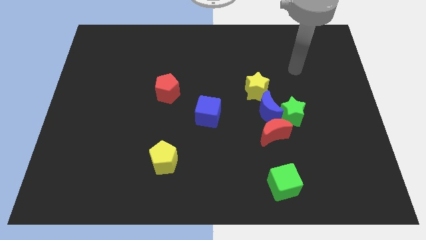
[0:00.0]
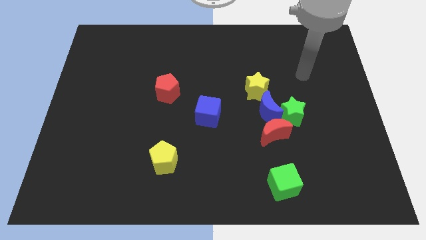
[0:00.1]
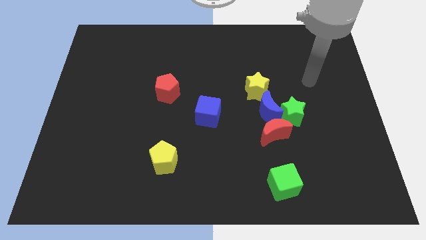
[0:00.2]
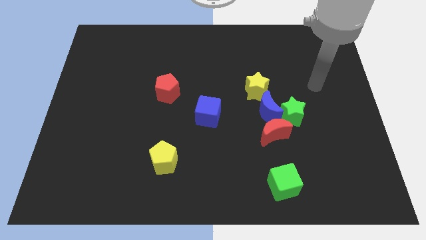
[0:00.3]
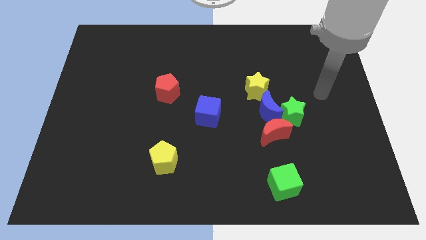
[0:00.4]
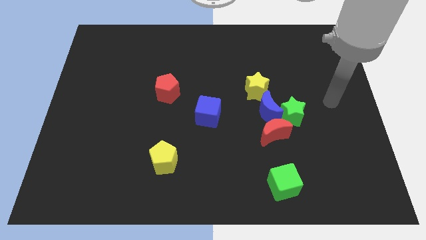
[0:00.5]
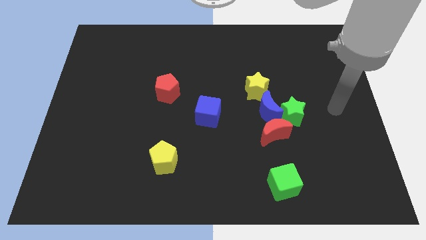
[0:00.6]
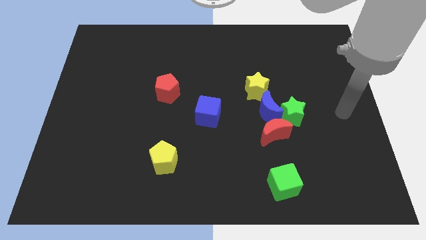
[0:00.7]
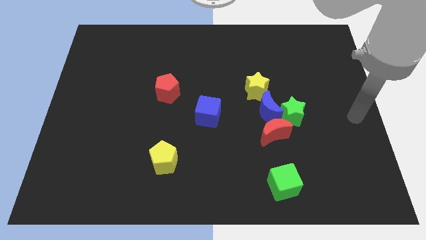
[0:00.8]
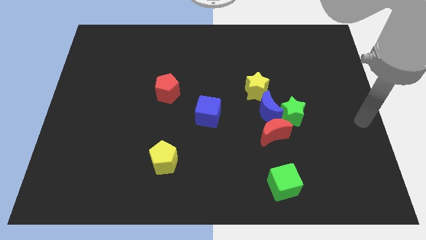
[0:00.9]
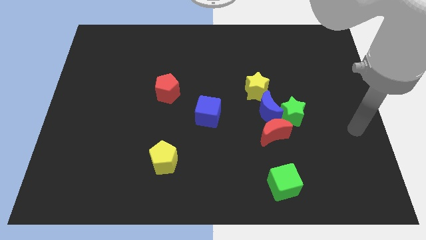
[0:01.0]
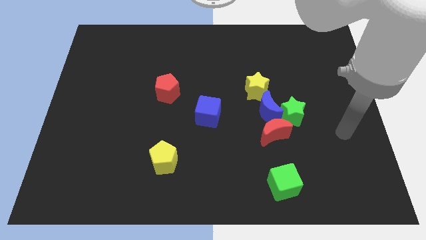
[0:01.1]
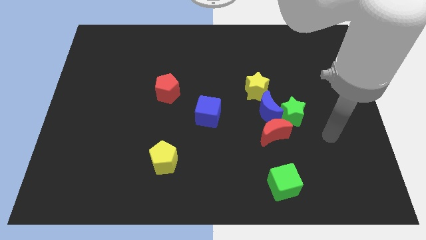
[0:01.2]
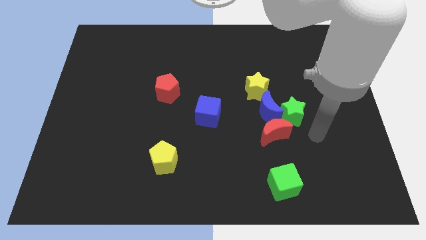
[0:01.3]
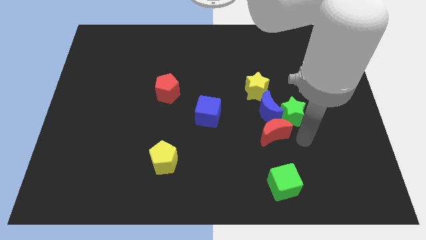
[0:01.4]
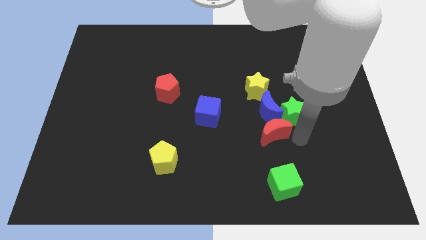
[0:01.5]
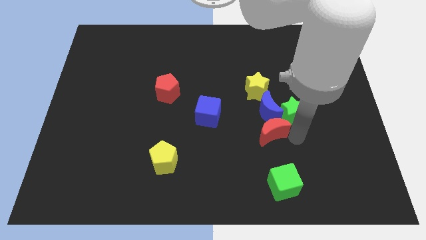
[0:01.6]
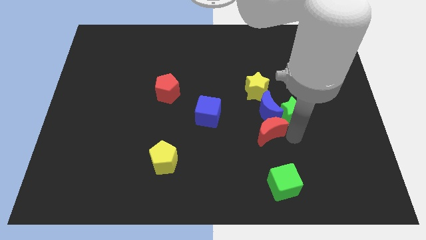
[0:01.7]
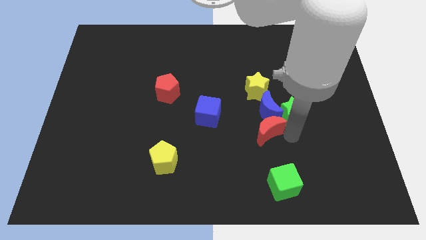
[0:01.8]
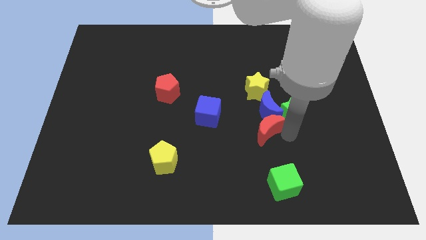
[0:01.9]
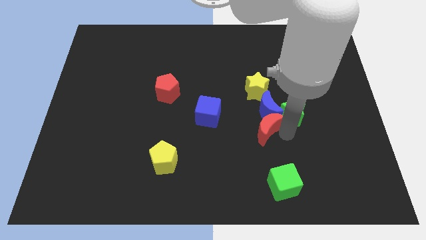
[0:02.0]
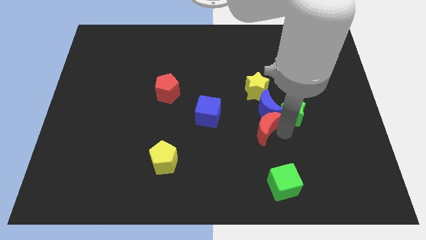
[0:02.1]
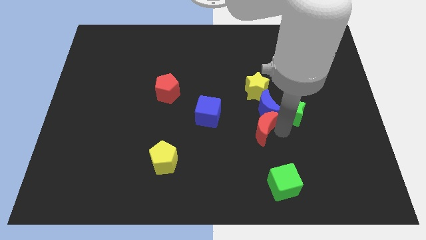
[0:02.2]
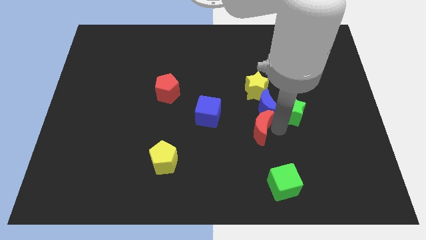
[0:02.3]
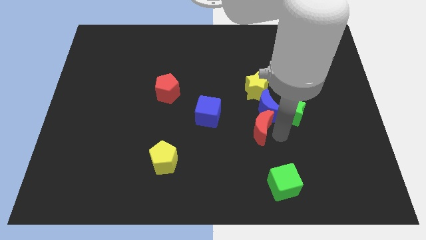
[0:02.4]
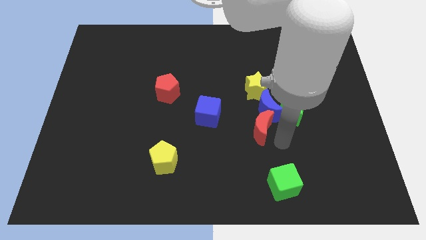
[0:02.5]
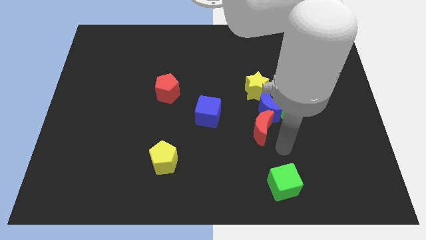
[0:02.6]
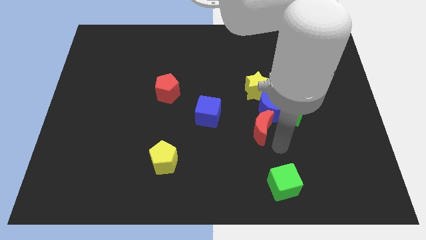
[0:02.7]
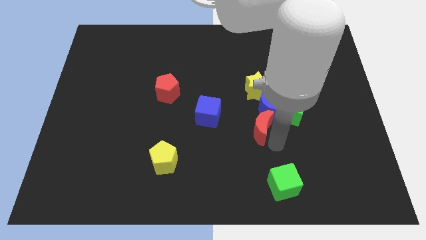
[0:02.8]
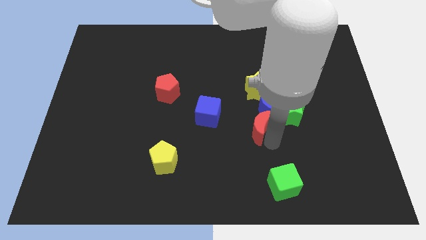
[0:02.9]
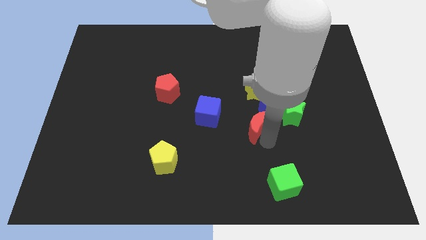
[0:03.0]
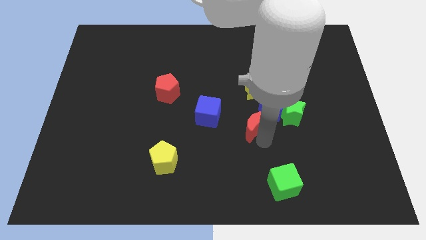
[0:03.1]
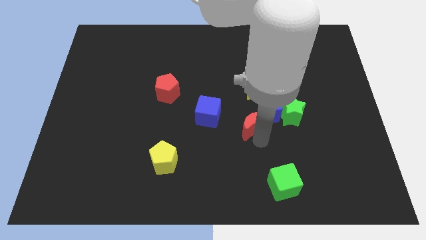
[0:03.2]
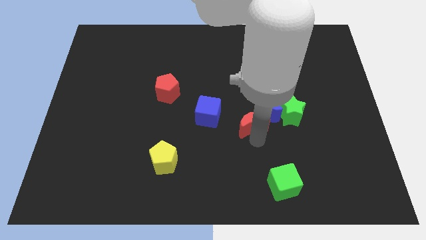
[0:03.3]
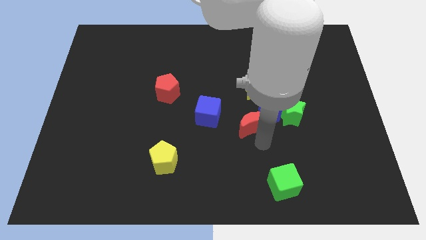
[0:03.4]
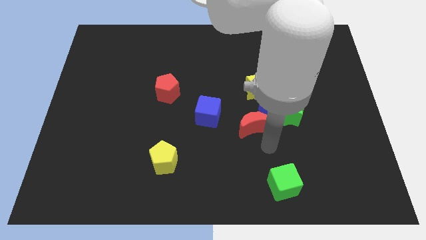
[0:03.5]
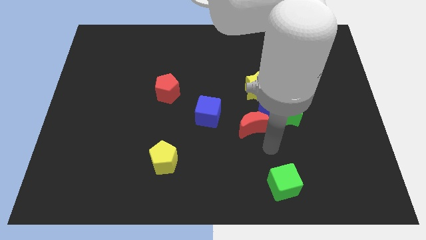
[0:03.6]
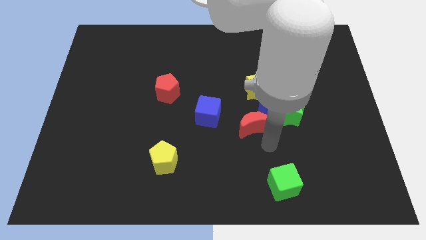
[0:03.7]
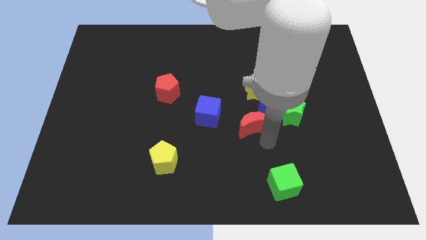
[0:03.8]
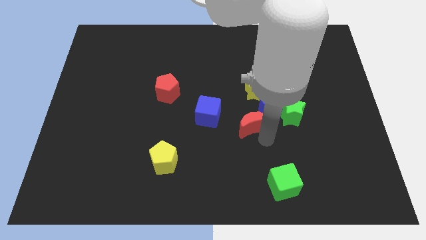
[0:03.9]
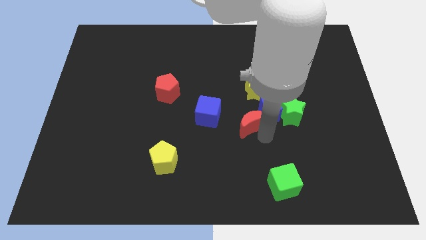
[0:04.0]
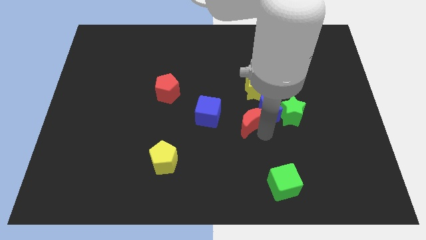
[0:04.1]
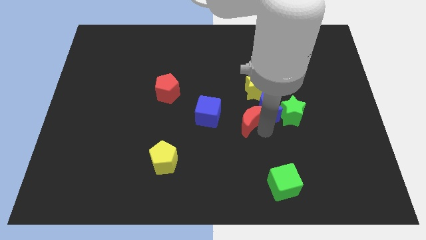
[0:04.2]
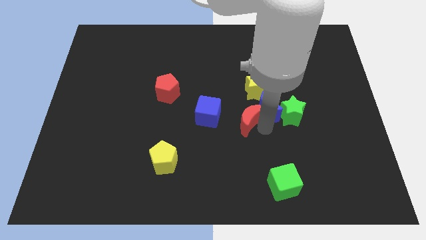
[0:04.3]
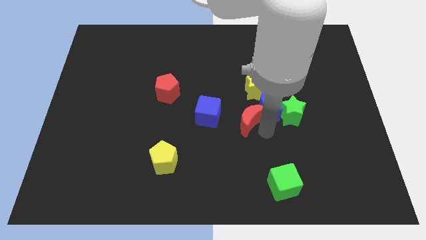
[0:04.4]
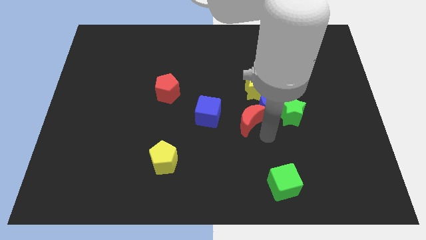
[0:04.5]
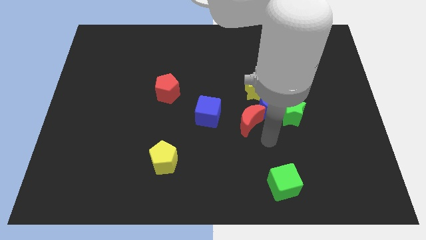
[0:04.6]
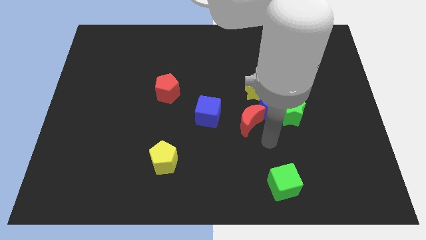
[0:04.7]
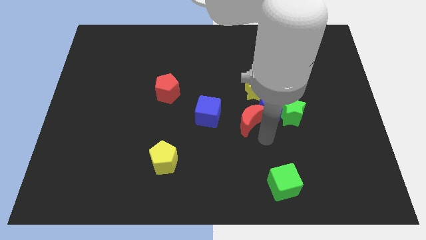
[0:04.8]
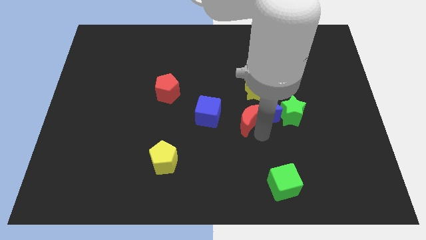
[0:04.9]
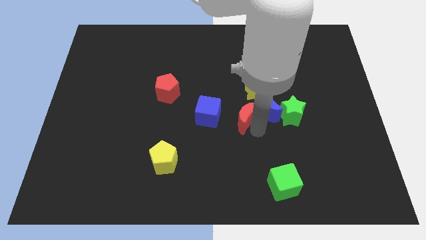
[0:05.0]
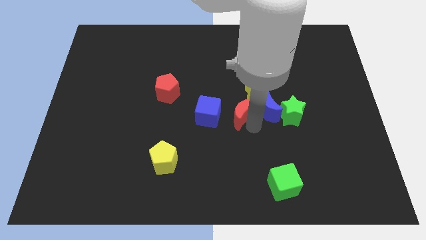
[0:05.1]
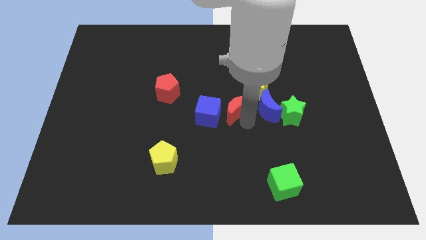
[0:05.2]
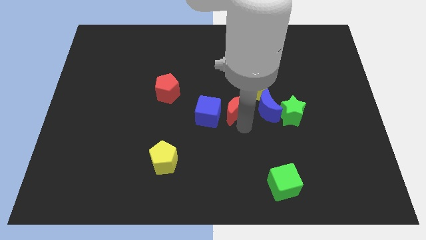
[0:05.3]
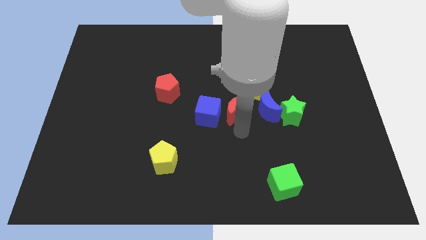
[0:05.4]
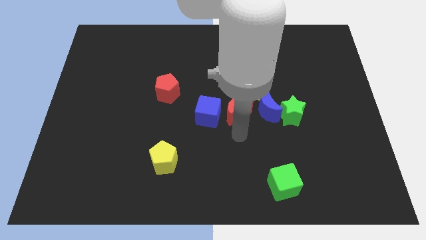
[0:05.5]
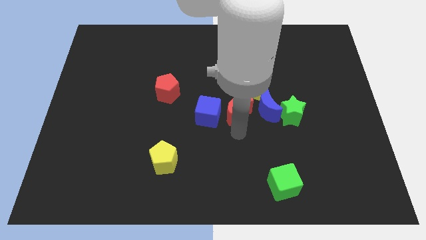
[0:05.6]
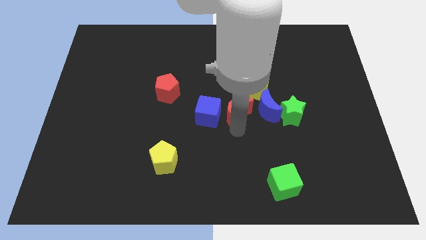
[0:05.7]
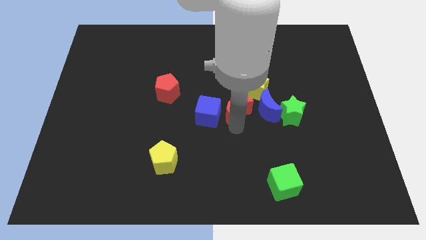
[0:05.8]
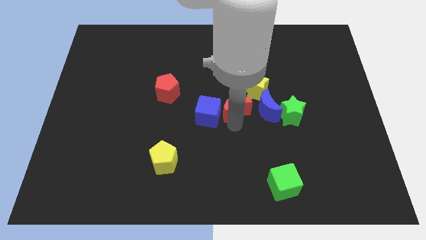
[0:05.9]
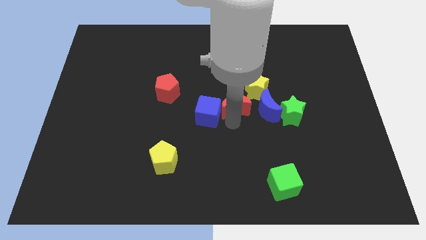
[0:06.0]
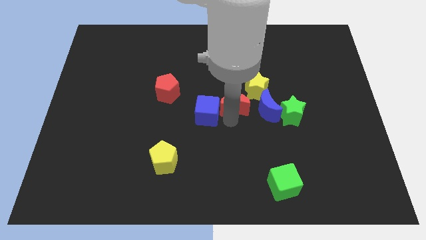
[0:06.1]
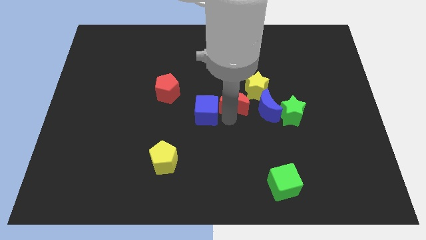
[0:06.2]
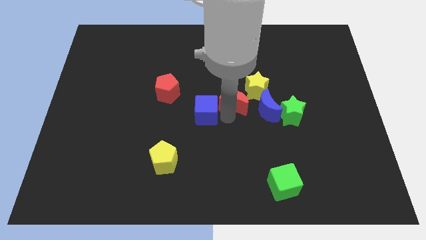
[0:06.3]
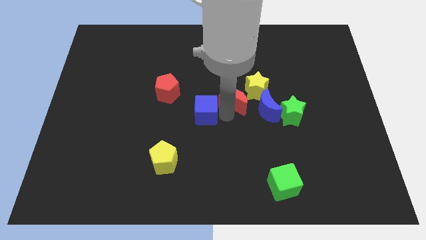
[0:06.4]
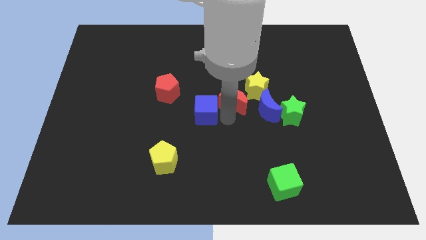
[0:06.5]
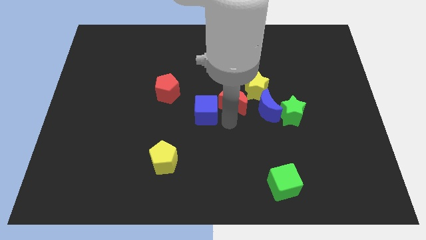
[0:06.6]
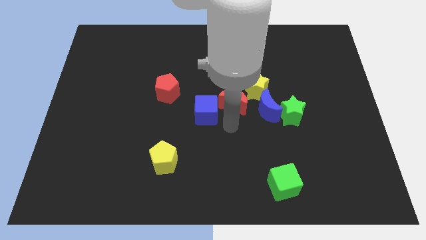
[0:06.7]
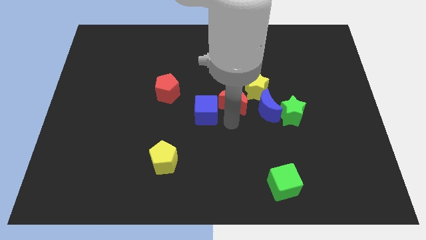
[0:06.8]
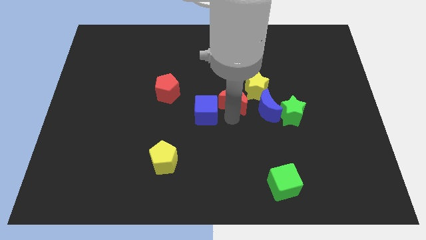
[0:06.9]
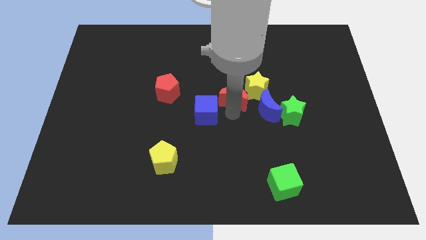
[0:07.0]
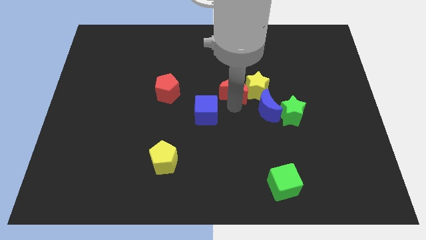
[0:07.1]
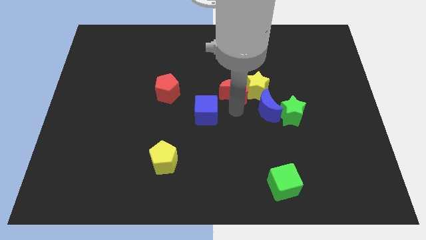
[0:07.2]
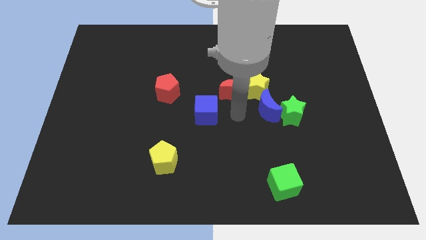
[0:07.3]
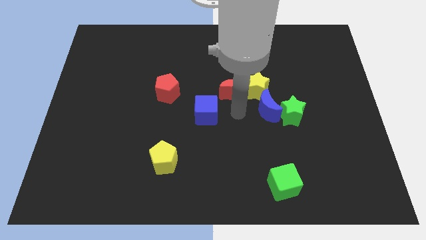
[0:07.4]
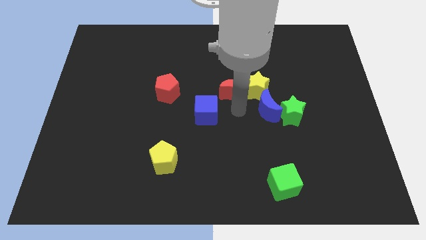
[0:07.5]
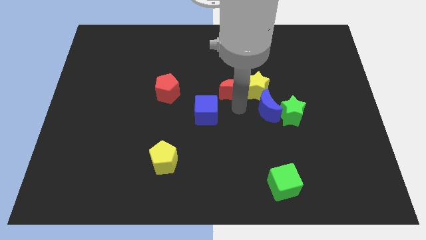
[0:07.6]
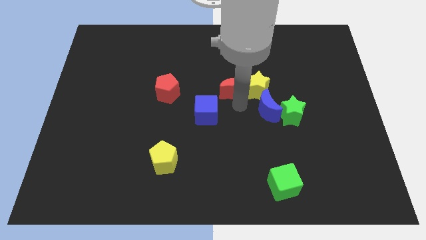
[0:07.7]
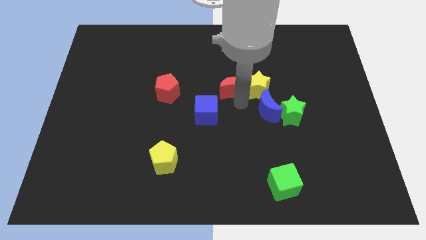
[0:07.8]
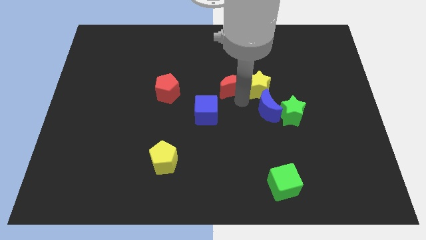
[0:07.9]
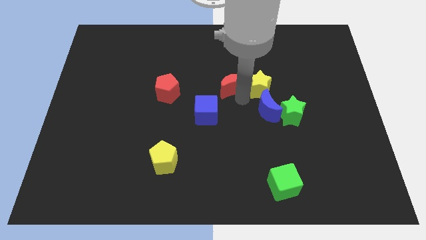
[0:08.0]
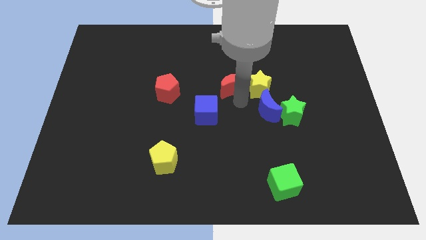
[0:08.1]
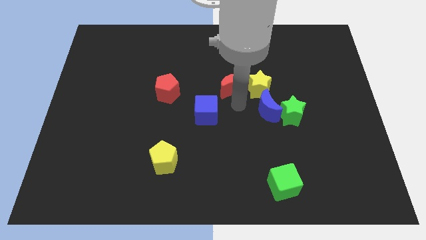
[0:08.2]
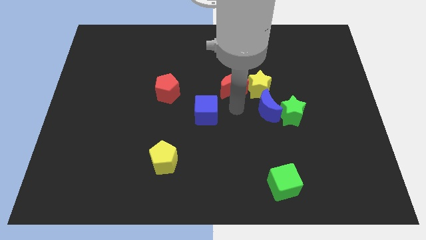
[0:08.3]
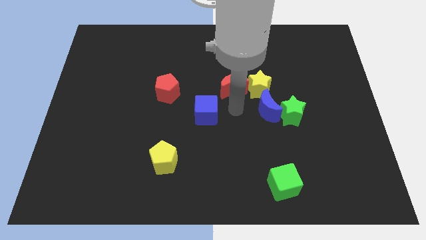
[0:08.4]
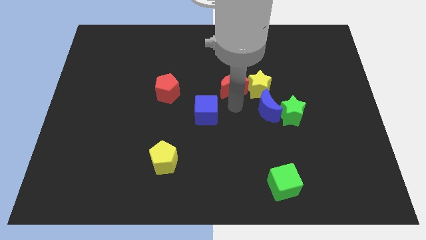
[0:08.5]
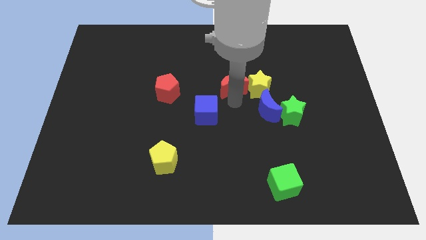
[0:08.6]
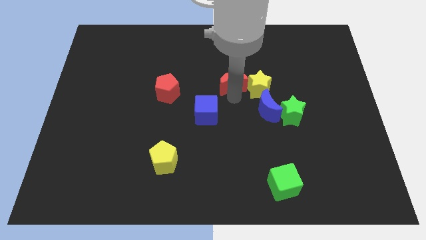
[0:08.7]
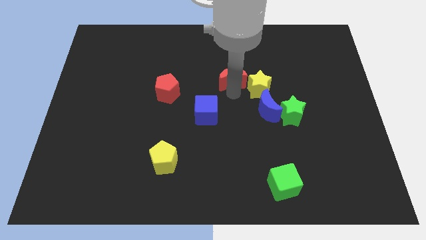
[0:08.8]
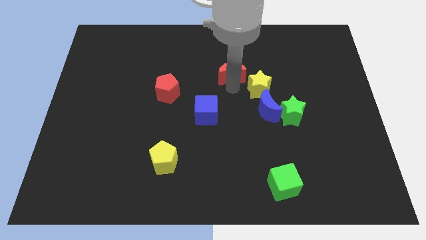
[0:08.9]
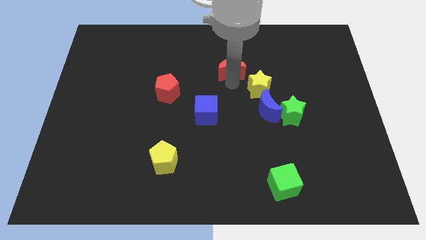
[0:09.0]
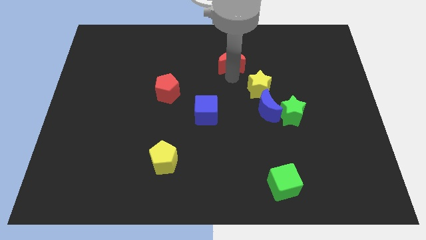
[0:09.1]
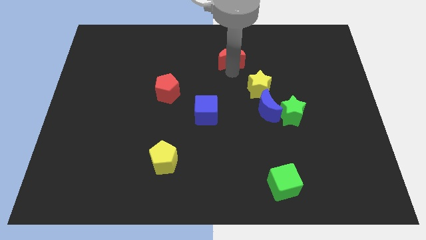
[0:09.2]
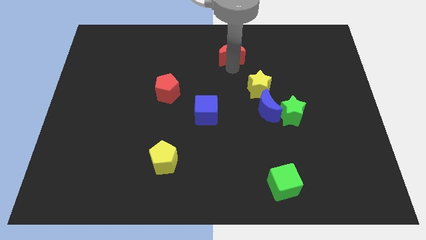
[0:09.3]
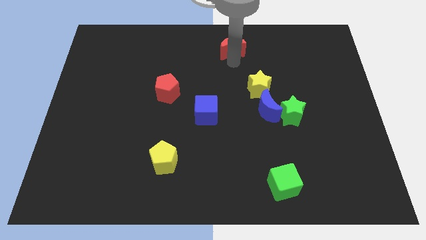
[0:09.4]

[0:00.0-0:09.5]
put the red moon to the towards your base
